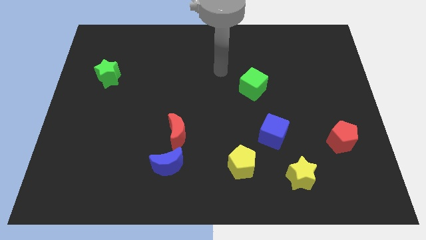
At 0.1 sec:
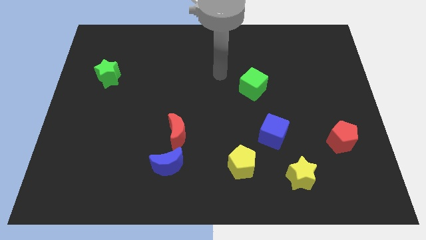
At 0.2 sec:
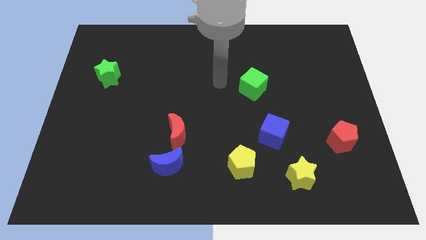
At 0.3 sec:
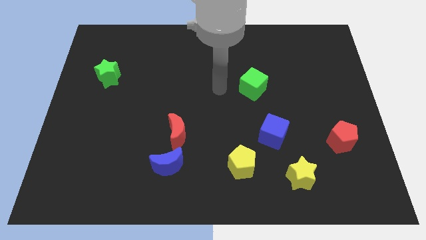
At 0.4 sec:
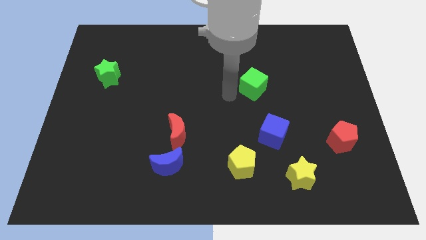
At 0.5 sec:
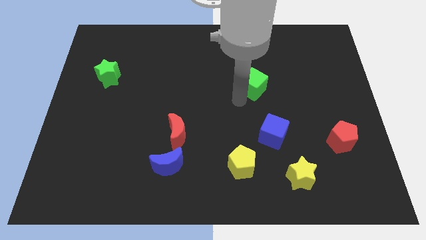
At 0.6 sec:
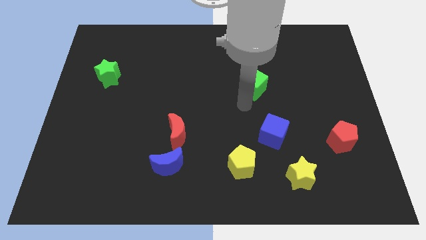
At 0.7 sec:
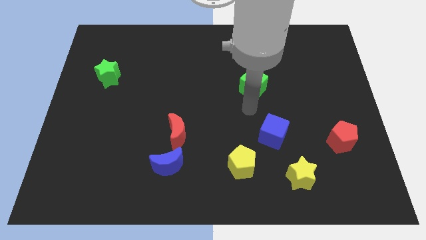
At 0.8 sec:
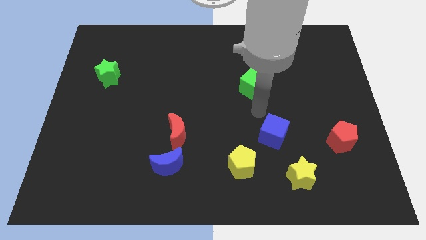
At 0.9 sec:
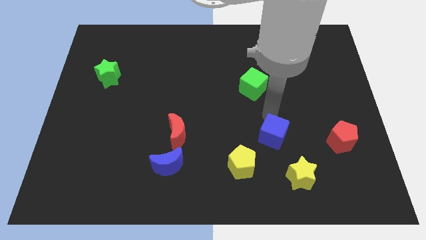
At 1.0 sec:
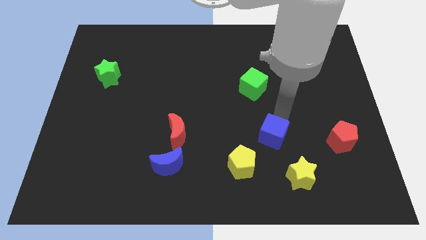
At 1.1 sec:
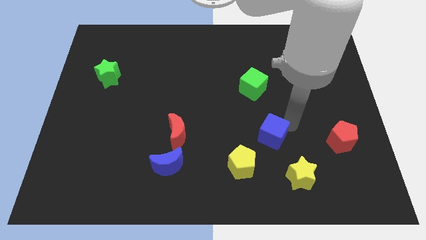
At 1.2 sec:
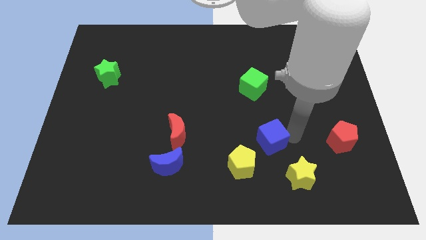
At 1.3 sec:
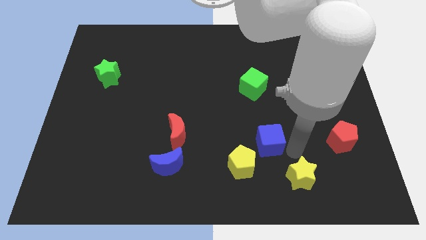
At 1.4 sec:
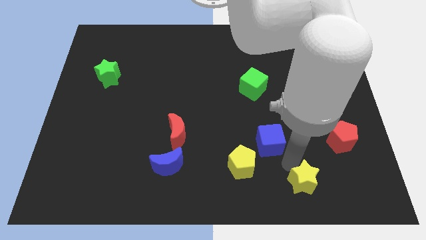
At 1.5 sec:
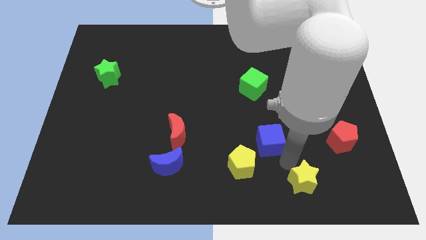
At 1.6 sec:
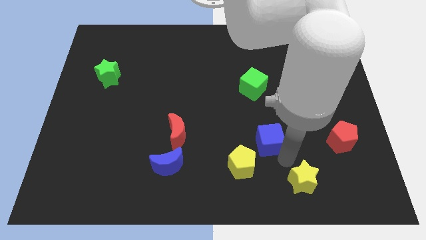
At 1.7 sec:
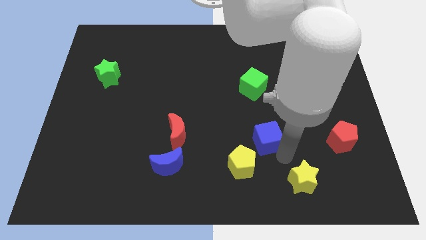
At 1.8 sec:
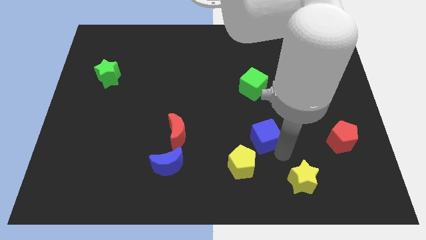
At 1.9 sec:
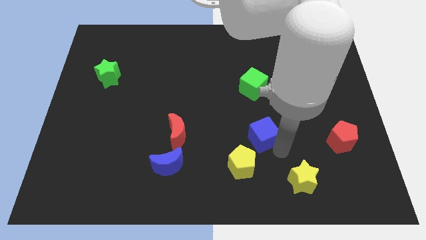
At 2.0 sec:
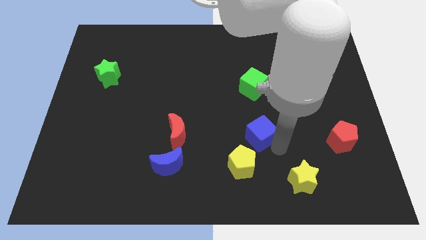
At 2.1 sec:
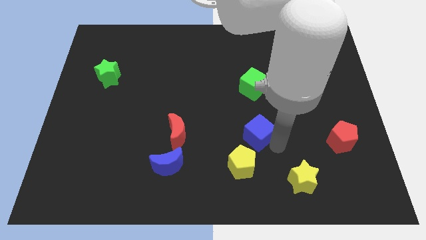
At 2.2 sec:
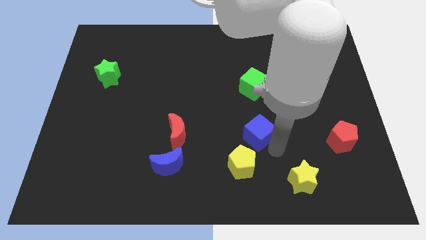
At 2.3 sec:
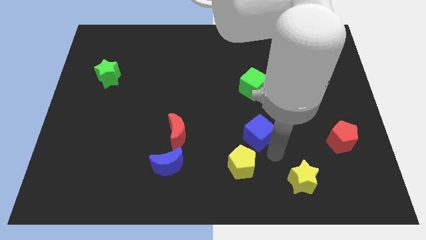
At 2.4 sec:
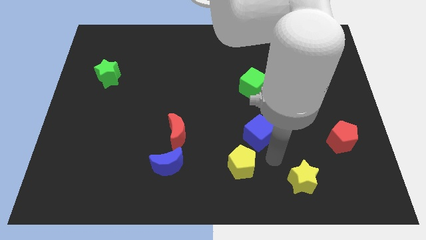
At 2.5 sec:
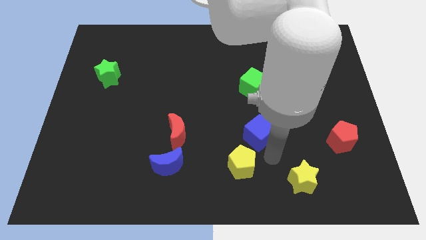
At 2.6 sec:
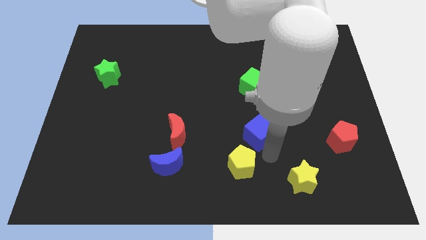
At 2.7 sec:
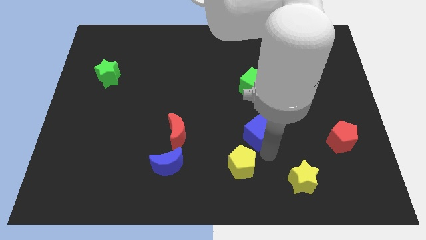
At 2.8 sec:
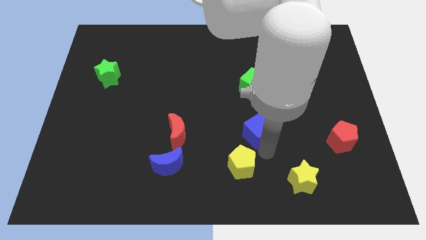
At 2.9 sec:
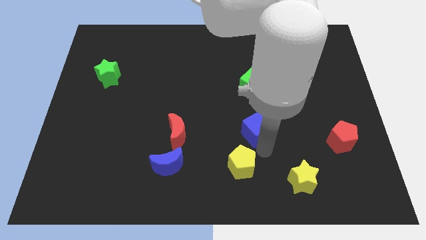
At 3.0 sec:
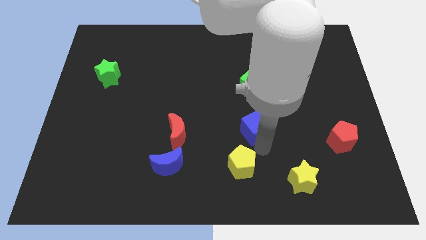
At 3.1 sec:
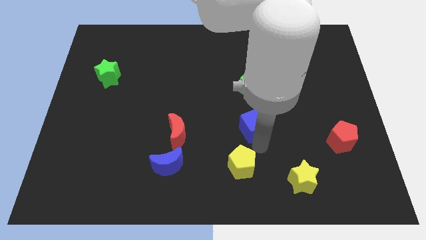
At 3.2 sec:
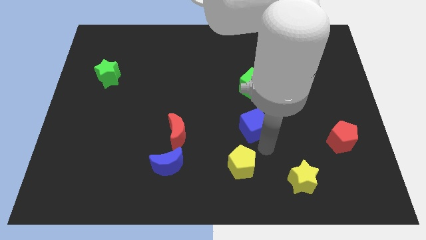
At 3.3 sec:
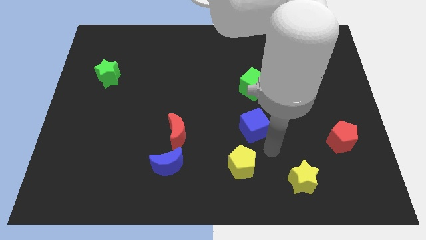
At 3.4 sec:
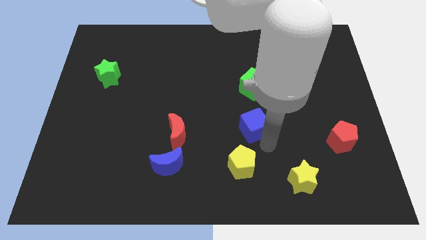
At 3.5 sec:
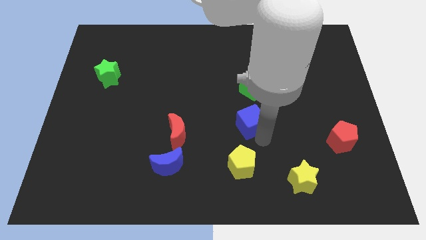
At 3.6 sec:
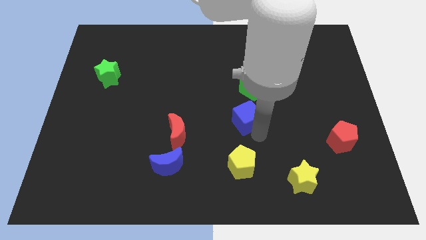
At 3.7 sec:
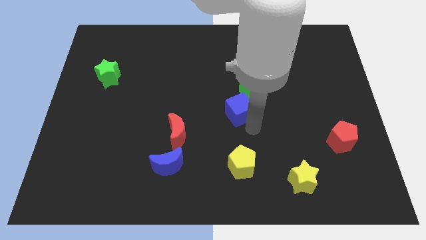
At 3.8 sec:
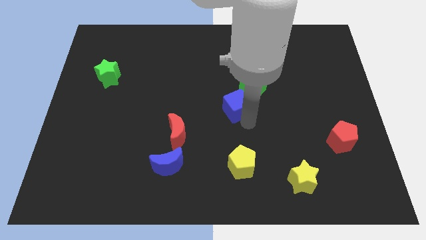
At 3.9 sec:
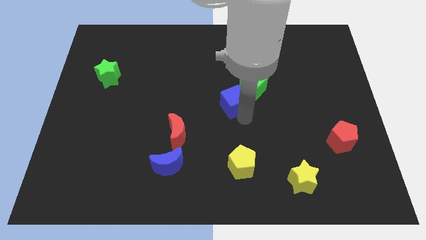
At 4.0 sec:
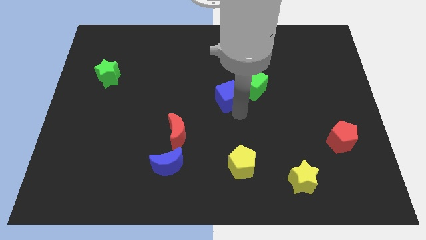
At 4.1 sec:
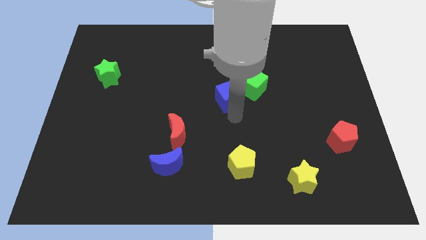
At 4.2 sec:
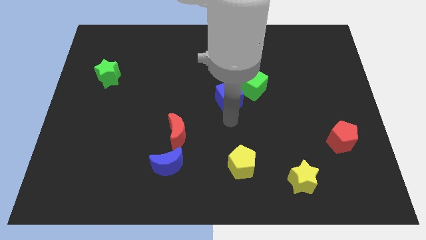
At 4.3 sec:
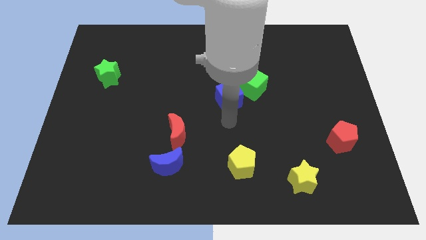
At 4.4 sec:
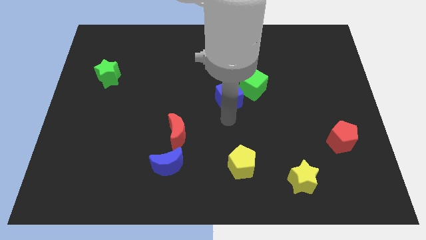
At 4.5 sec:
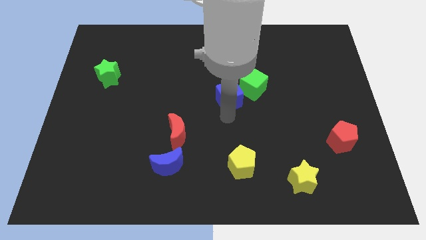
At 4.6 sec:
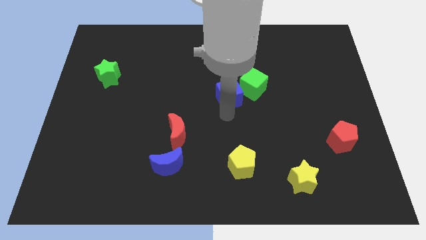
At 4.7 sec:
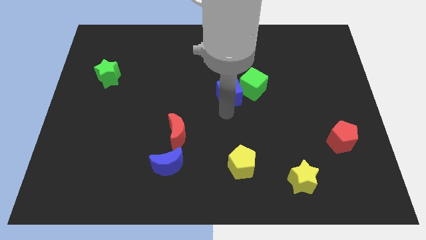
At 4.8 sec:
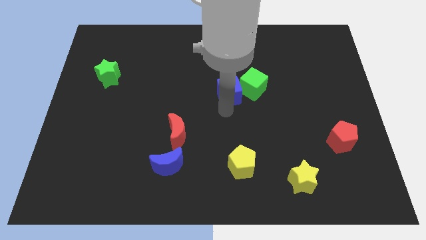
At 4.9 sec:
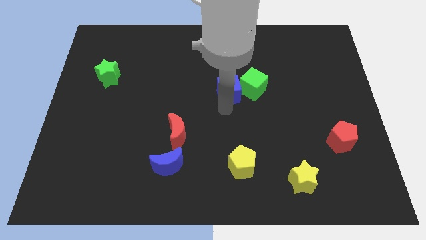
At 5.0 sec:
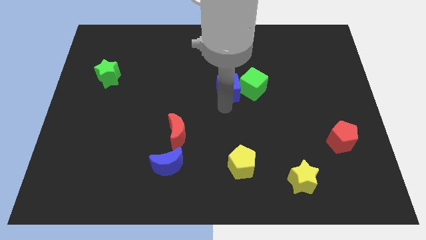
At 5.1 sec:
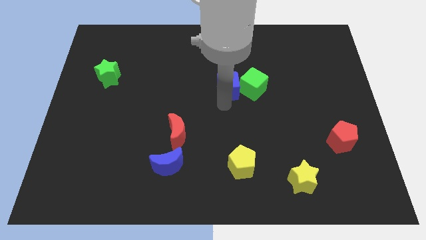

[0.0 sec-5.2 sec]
put the blue cube to the top left side of the green cube

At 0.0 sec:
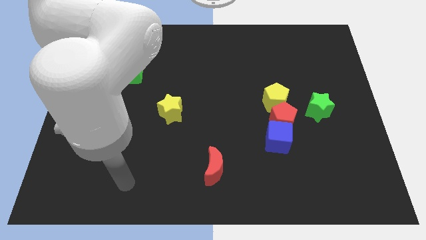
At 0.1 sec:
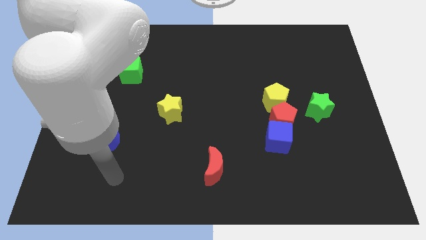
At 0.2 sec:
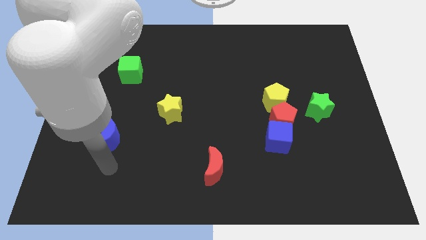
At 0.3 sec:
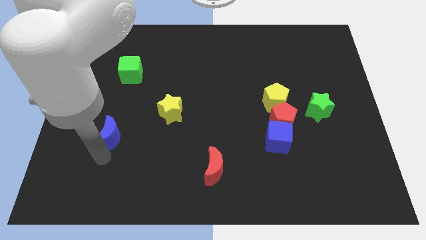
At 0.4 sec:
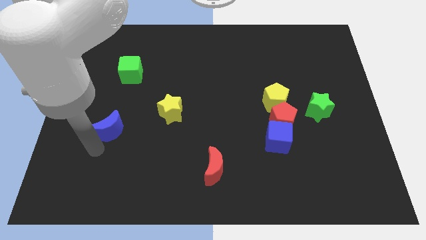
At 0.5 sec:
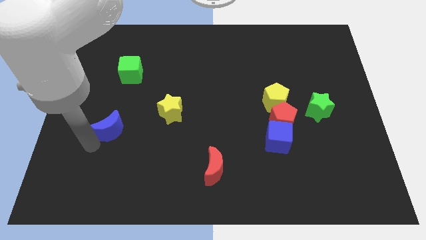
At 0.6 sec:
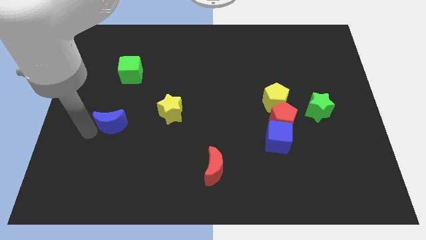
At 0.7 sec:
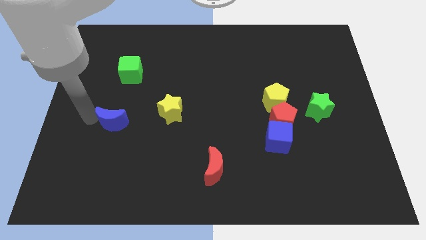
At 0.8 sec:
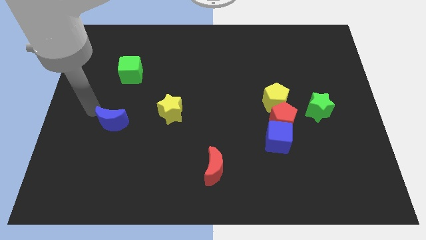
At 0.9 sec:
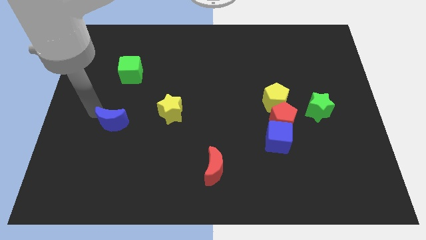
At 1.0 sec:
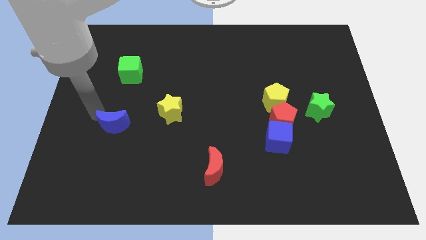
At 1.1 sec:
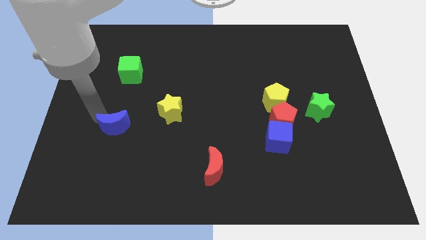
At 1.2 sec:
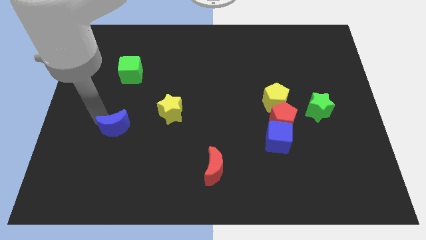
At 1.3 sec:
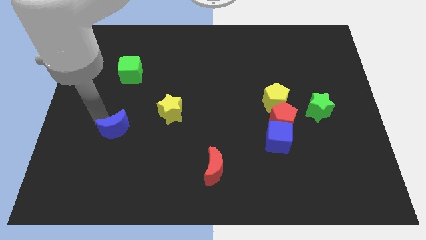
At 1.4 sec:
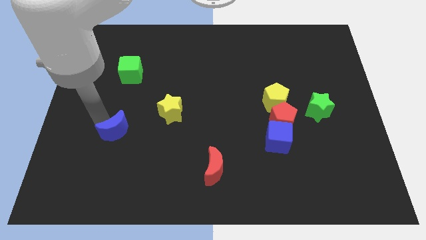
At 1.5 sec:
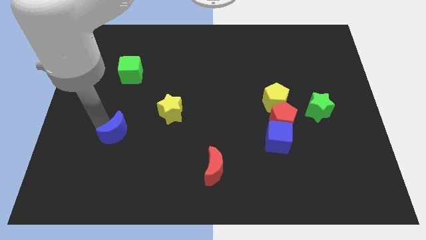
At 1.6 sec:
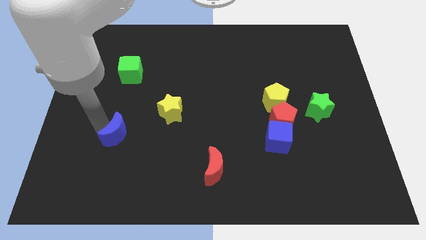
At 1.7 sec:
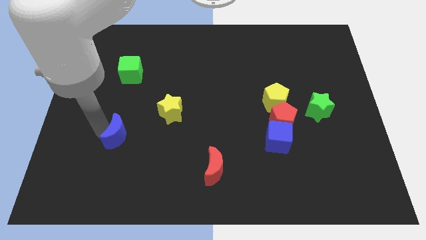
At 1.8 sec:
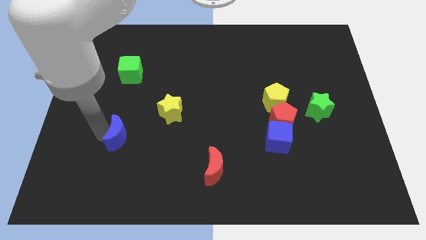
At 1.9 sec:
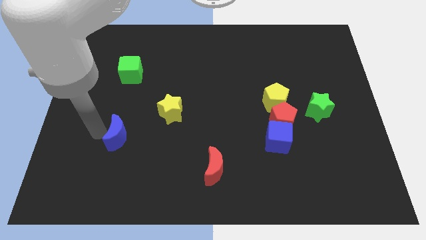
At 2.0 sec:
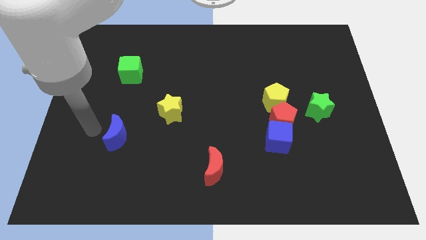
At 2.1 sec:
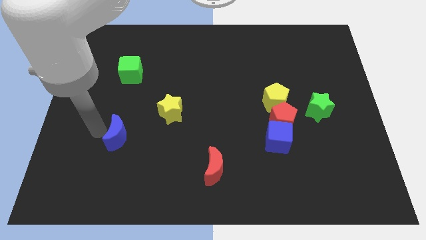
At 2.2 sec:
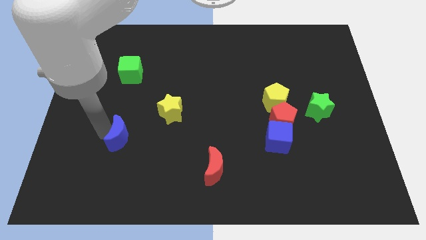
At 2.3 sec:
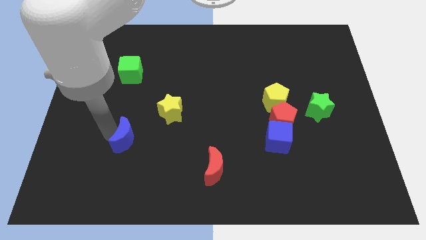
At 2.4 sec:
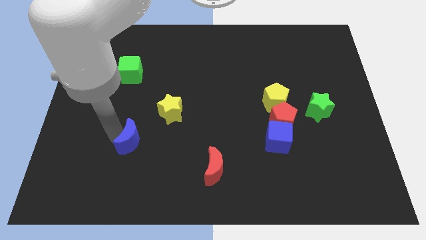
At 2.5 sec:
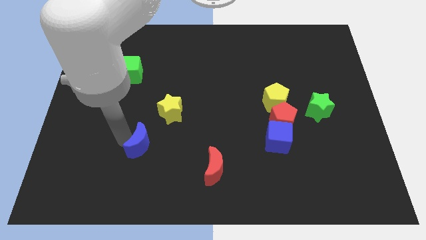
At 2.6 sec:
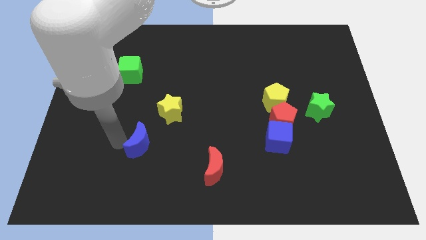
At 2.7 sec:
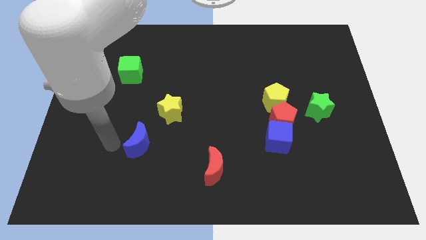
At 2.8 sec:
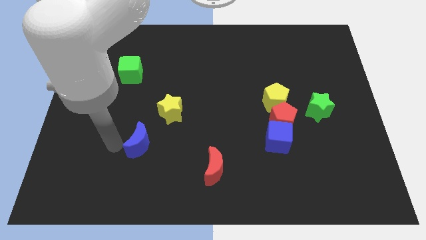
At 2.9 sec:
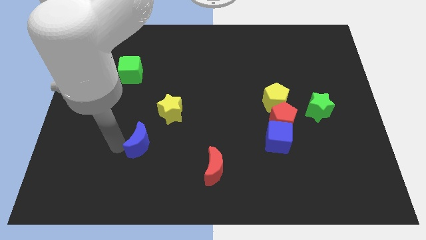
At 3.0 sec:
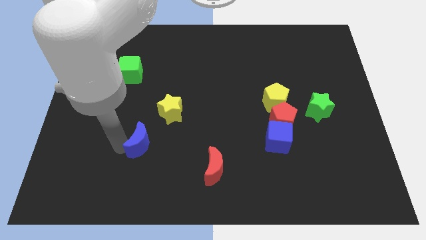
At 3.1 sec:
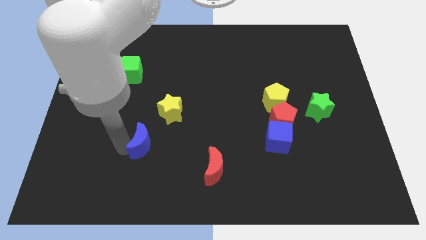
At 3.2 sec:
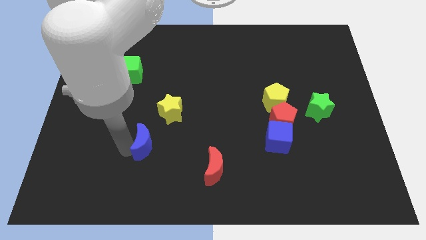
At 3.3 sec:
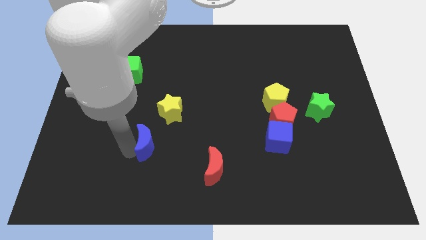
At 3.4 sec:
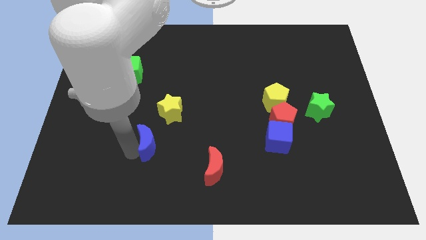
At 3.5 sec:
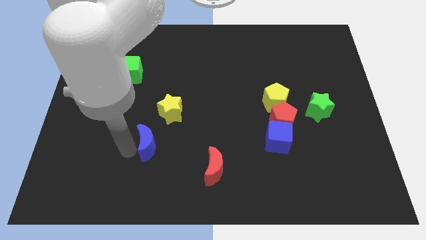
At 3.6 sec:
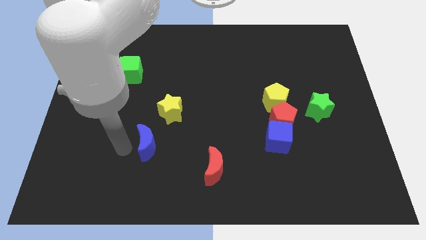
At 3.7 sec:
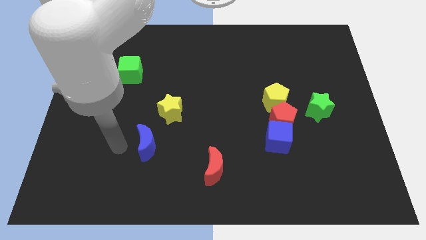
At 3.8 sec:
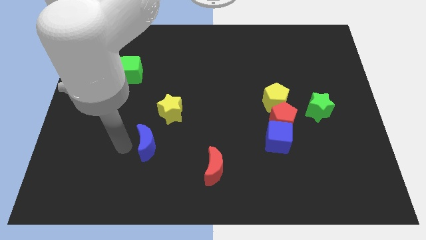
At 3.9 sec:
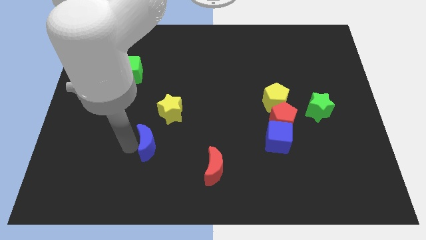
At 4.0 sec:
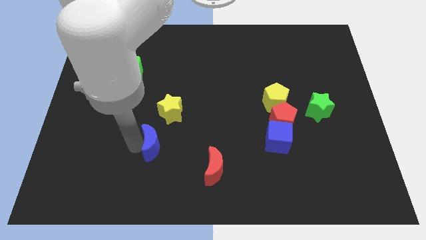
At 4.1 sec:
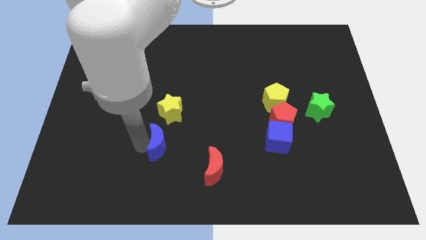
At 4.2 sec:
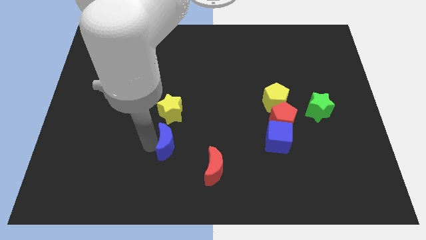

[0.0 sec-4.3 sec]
move the blue moon to the top left of the red moon
